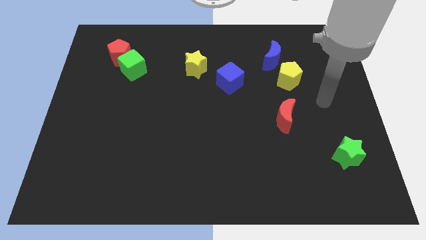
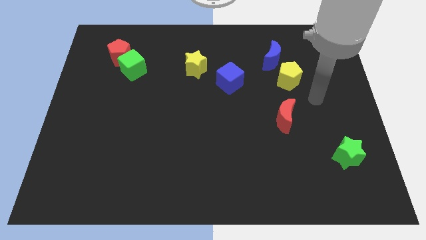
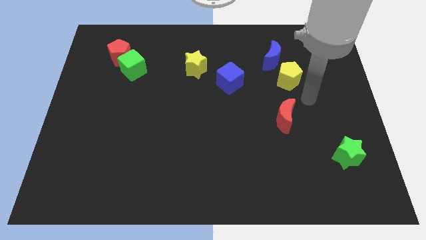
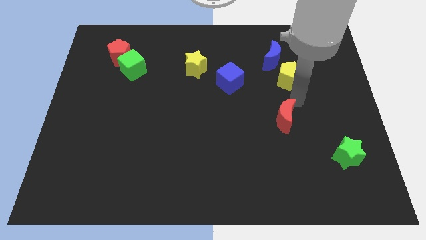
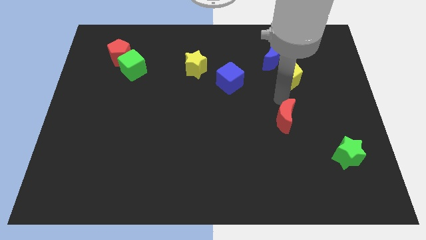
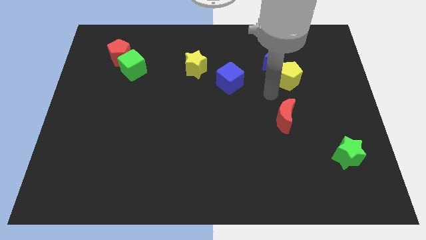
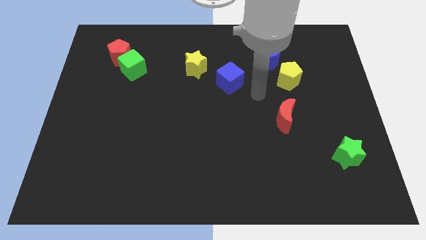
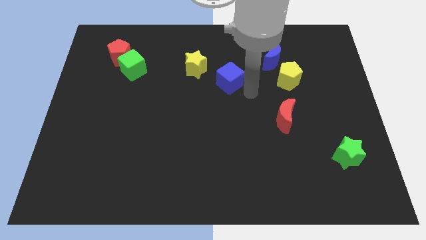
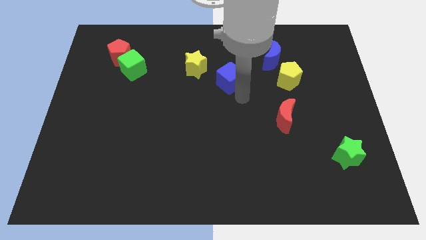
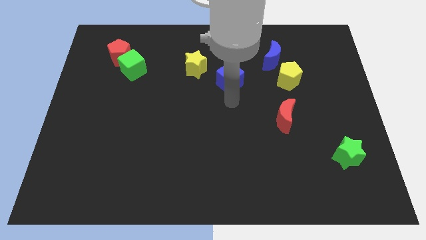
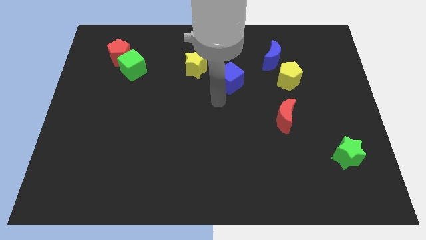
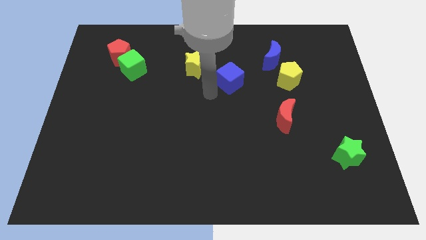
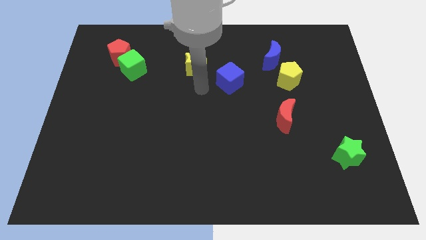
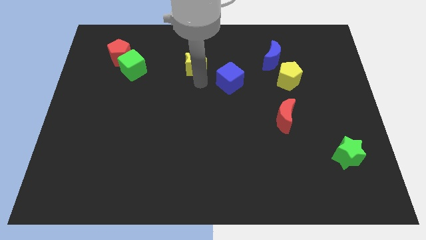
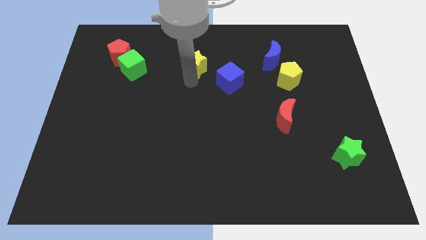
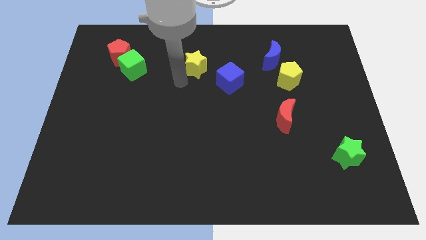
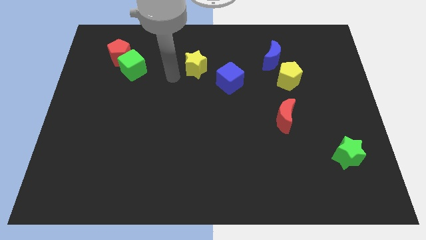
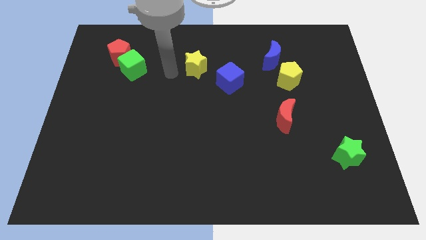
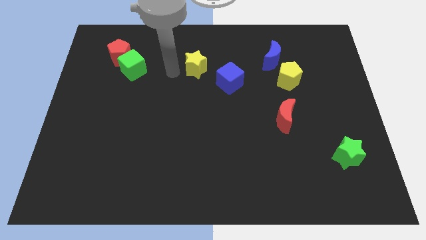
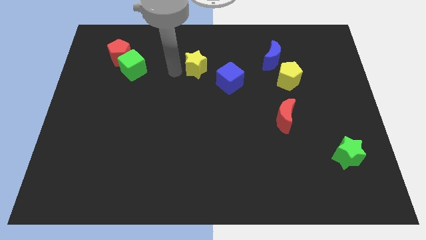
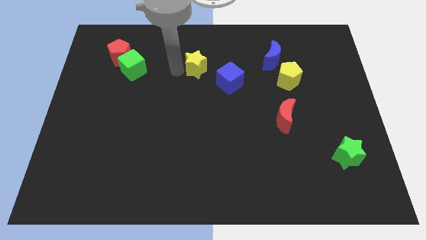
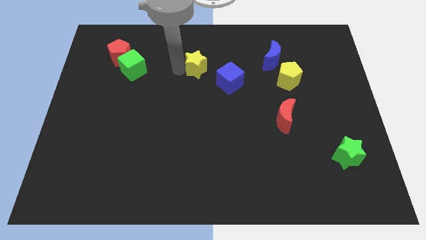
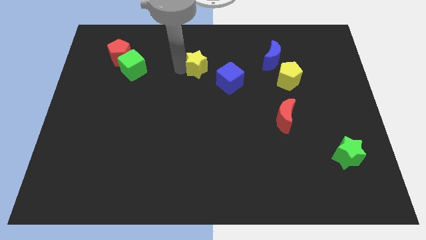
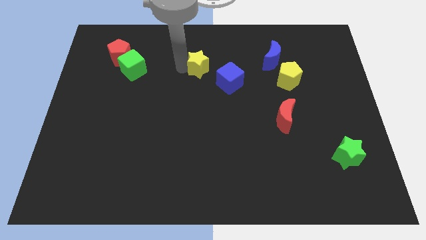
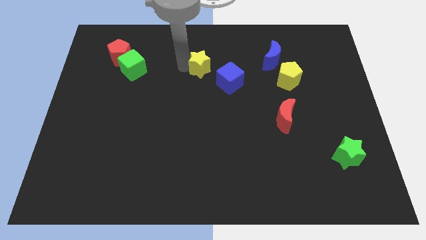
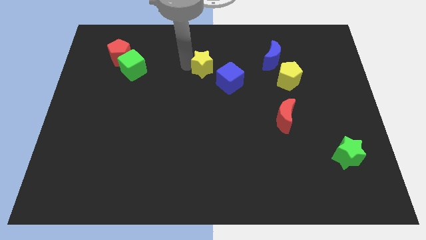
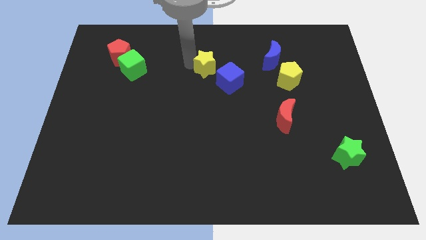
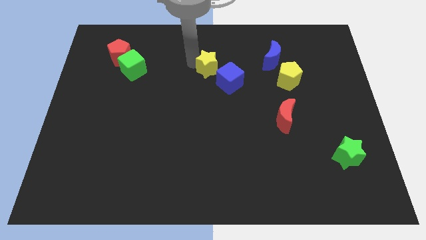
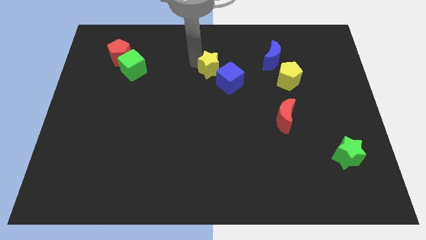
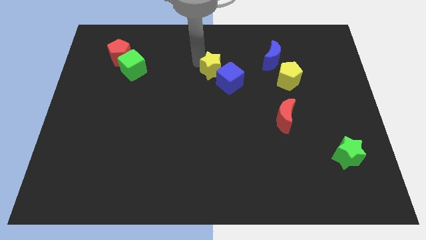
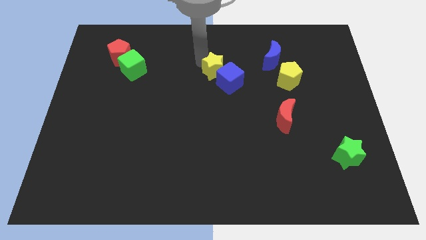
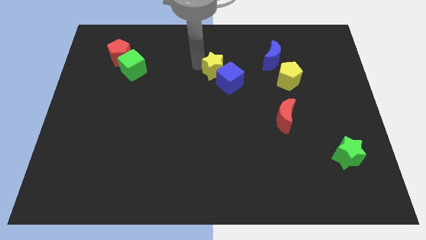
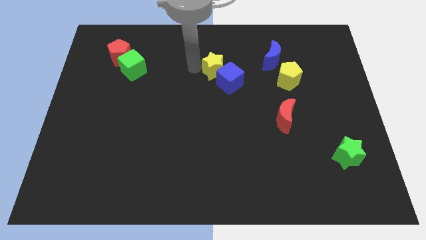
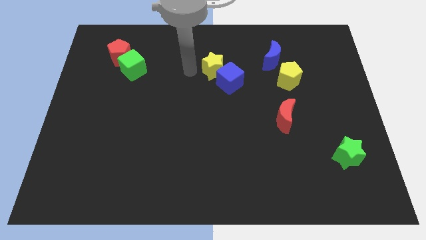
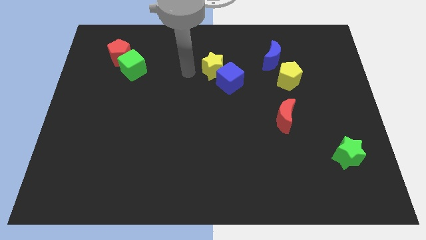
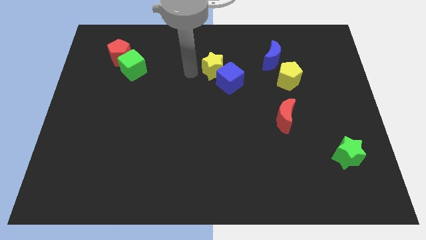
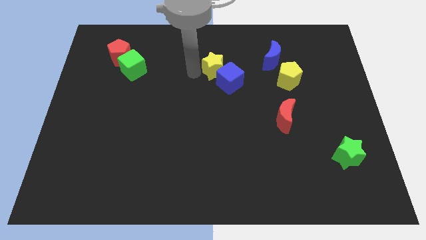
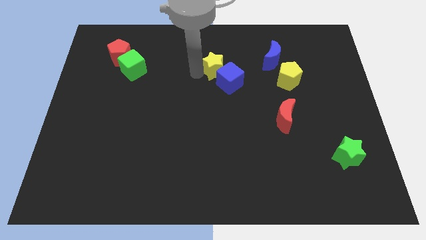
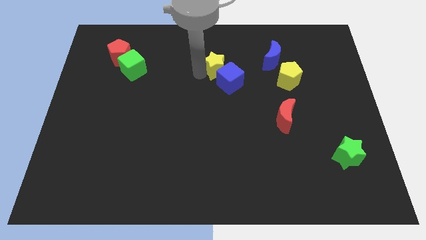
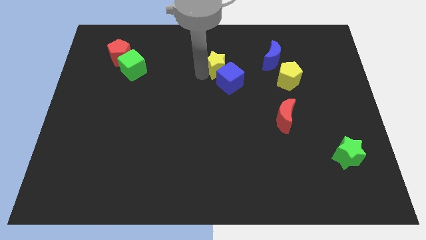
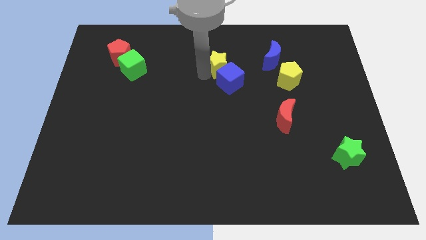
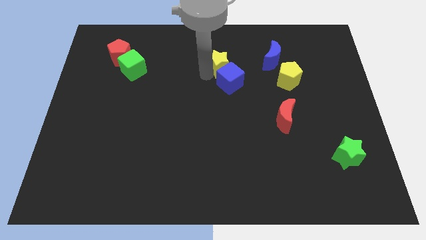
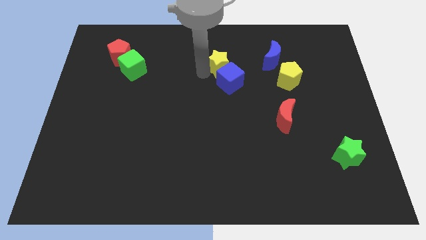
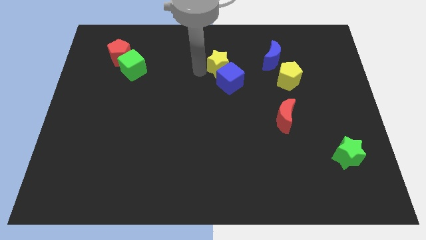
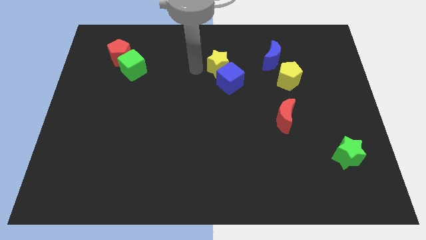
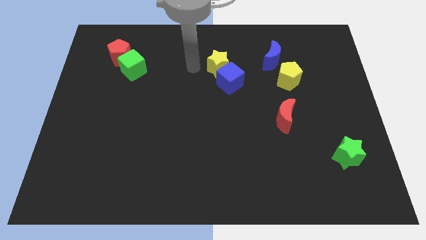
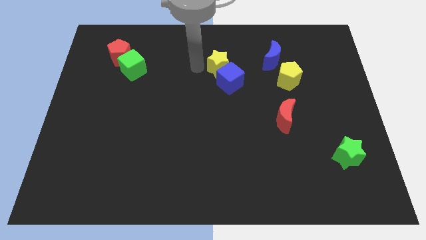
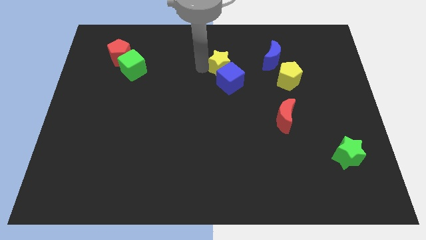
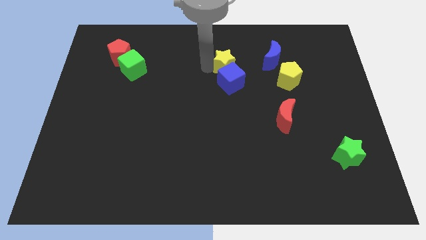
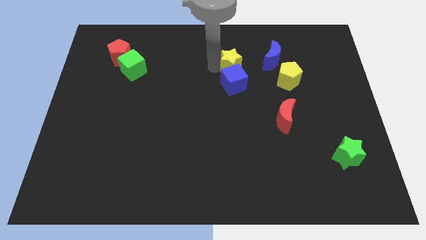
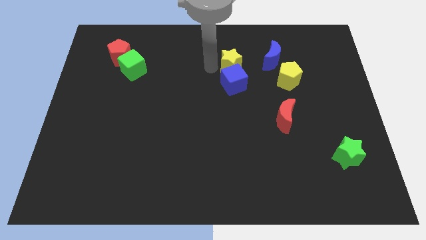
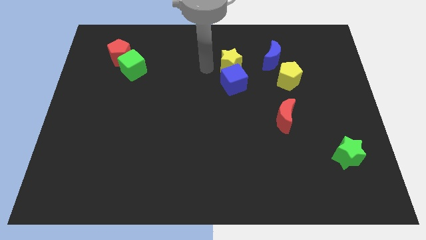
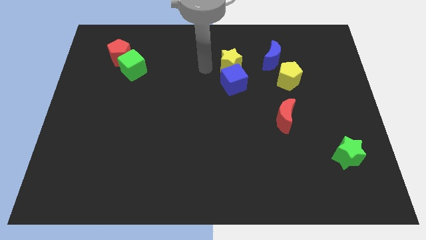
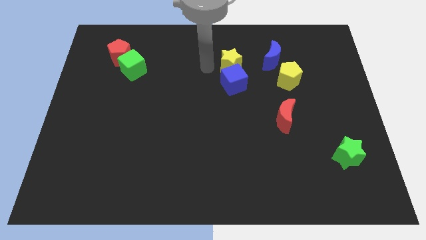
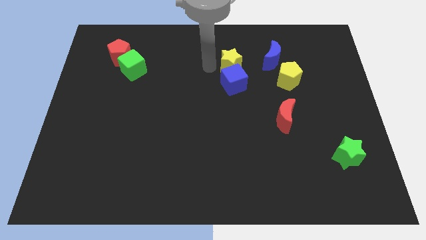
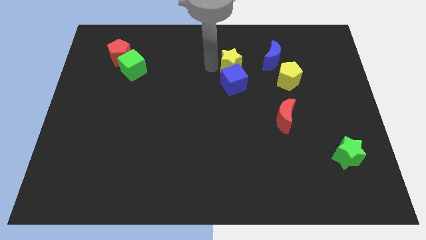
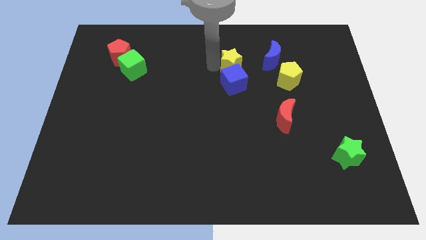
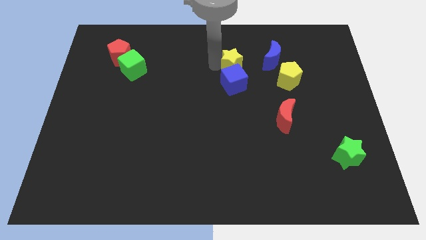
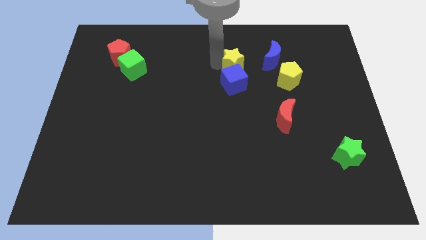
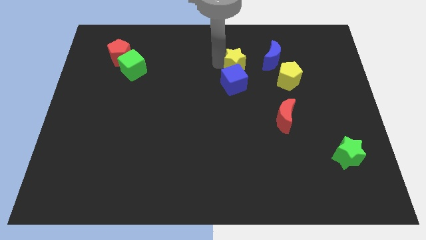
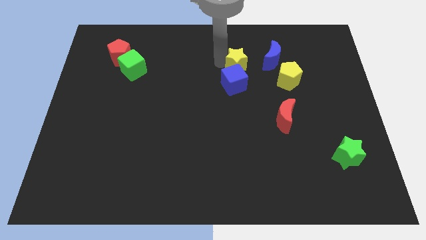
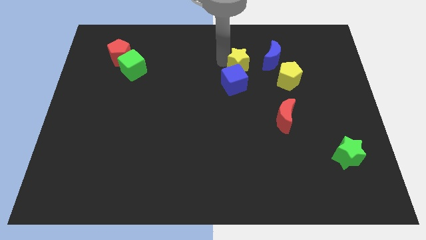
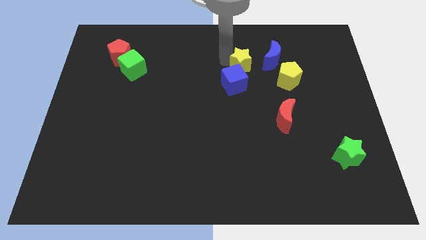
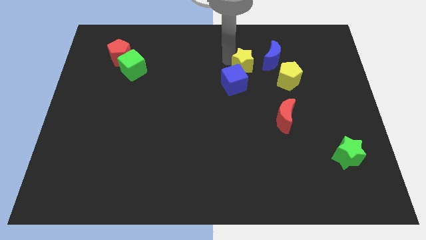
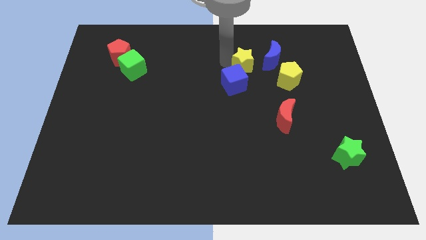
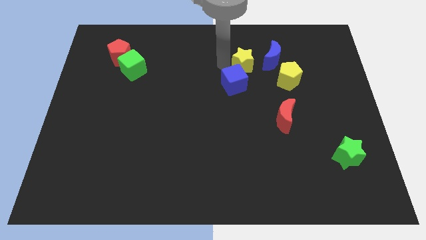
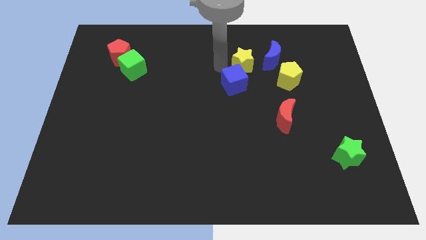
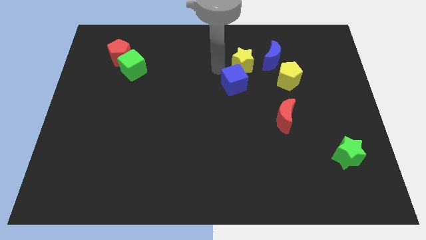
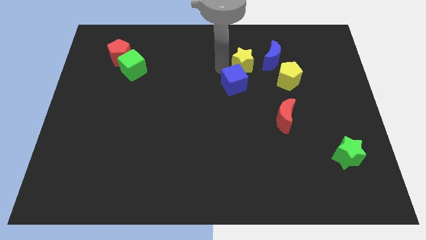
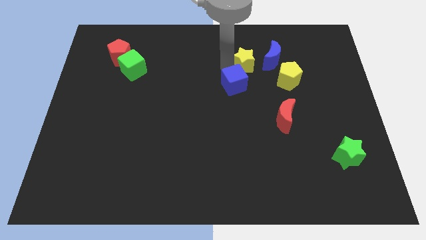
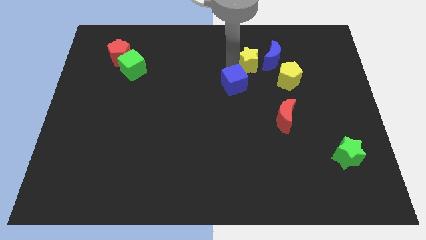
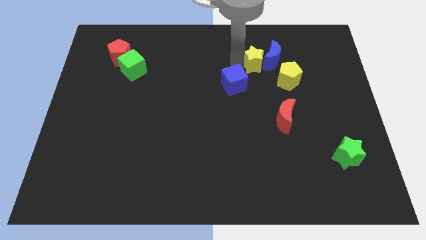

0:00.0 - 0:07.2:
push the yellow star next to the blue moon

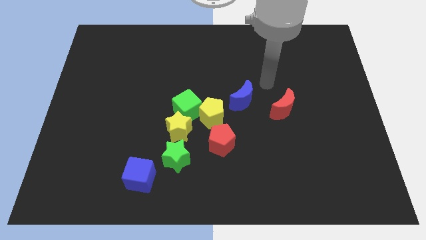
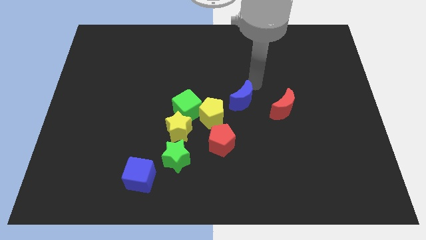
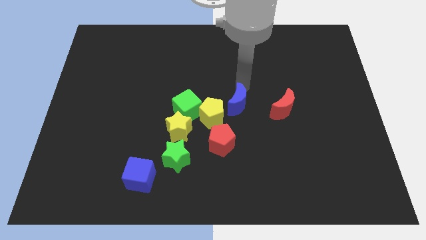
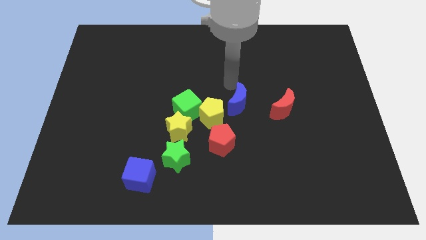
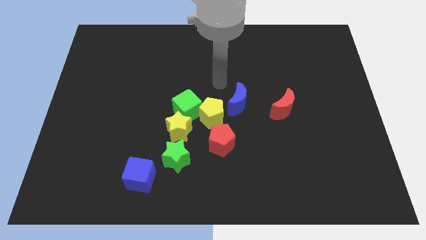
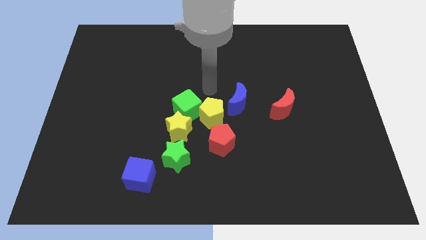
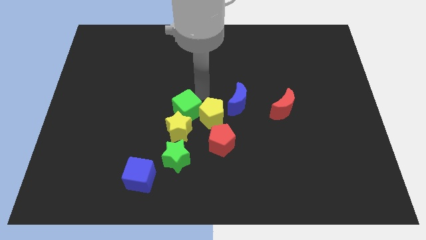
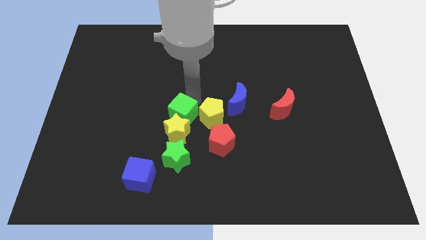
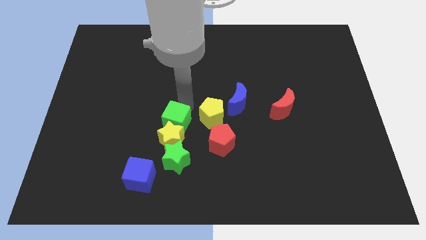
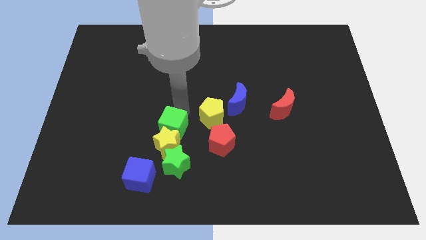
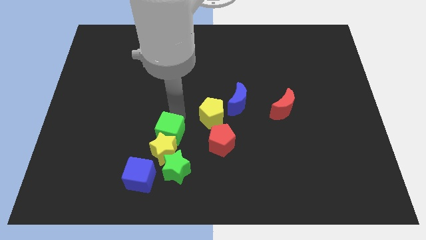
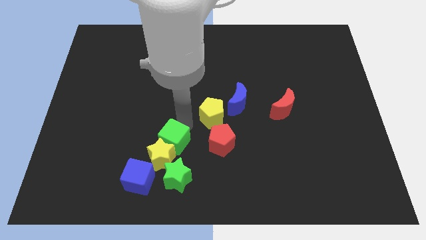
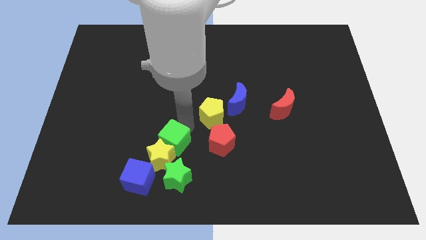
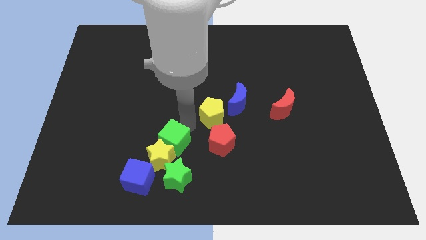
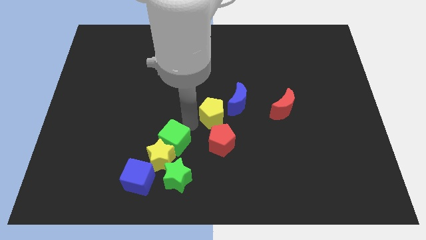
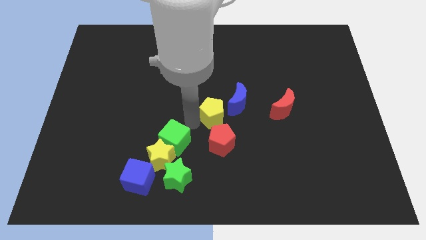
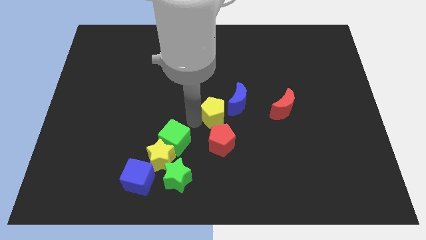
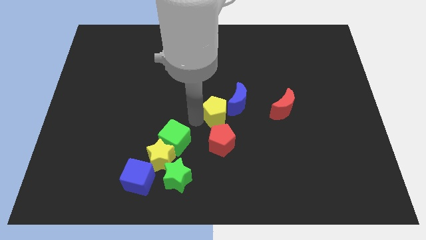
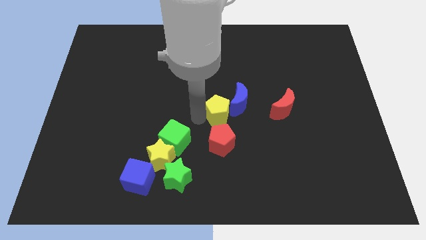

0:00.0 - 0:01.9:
move the yellow pentagon next to the blue moon
